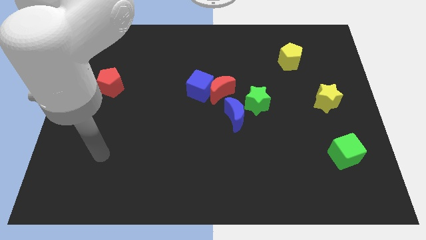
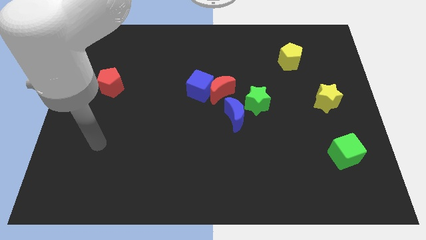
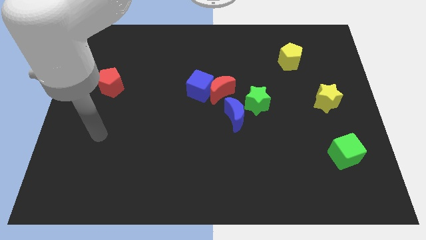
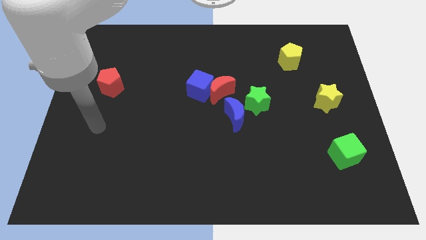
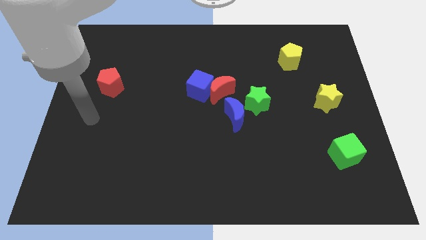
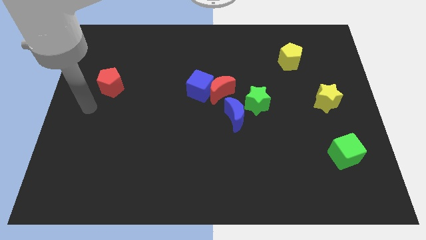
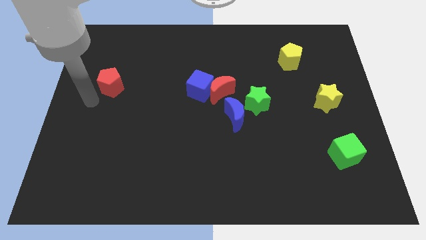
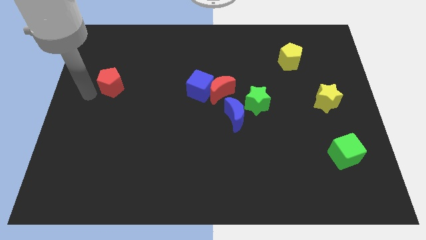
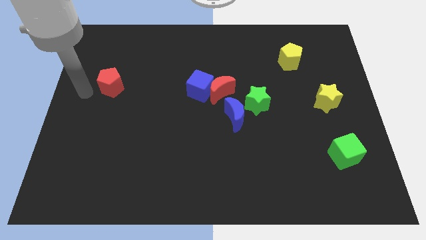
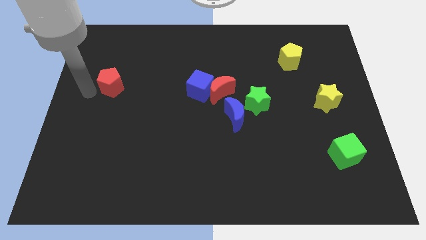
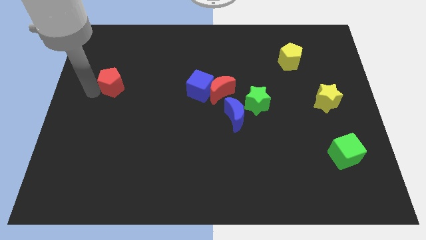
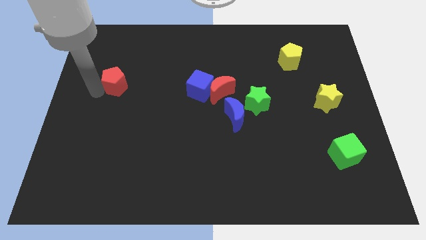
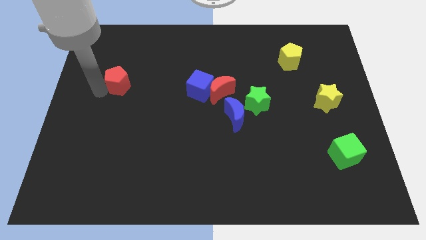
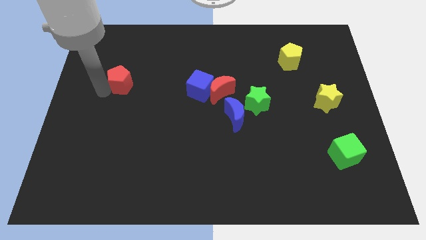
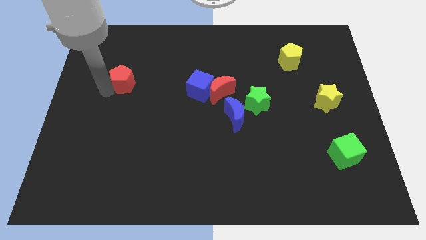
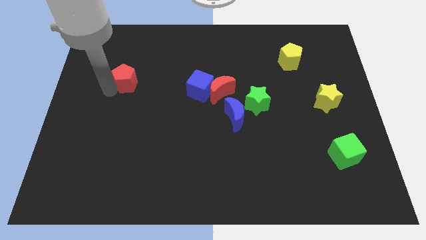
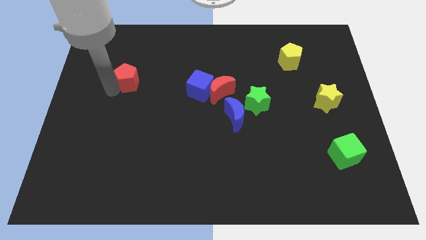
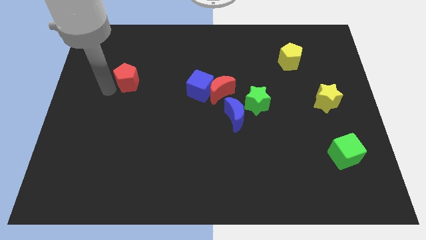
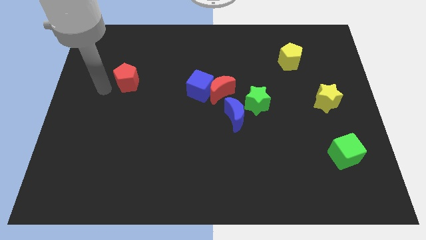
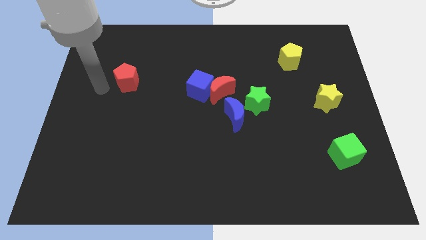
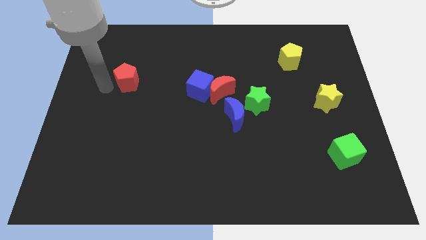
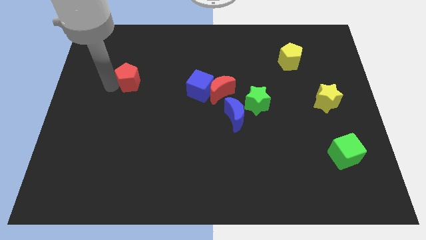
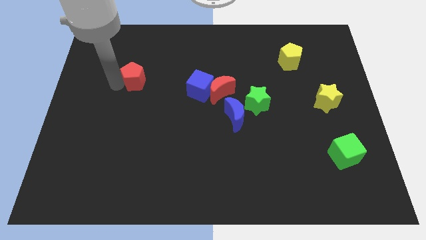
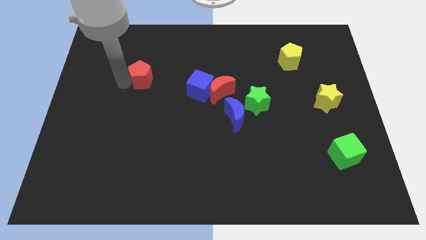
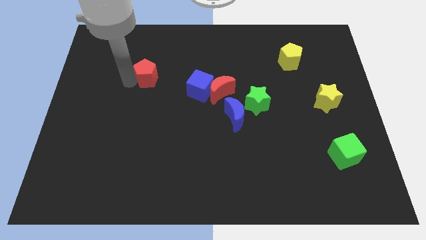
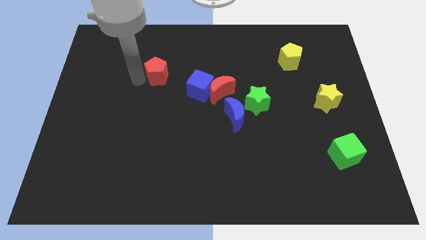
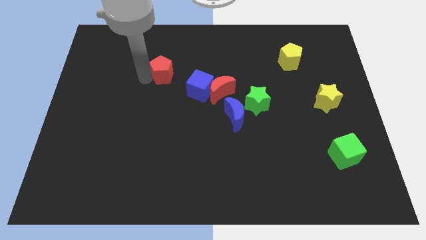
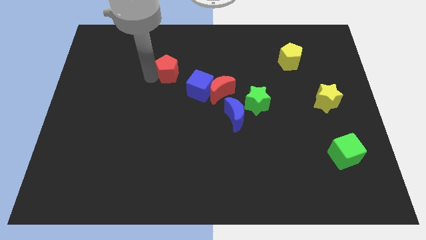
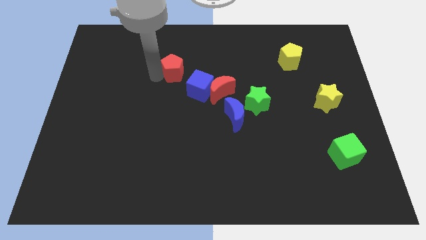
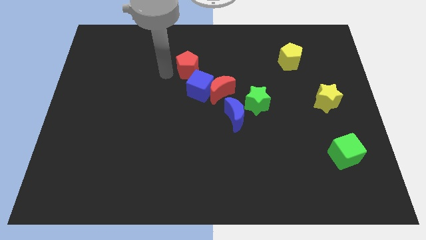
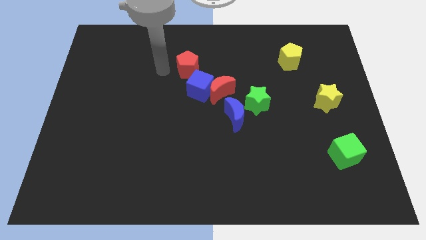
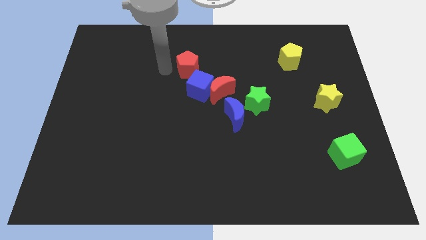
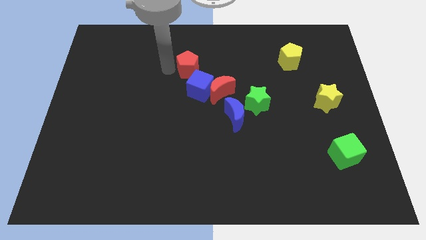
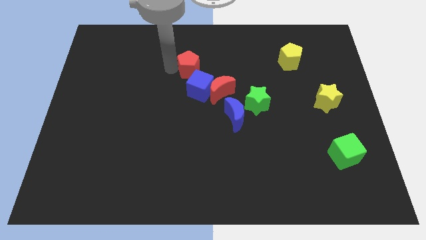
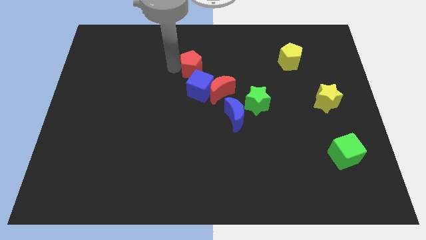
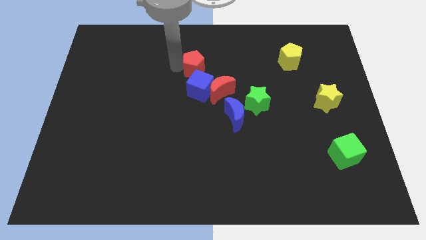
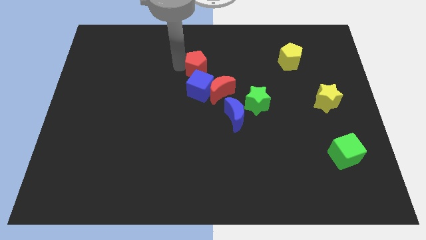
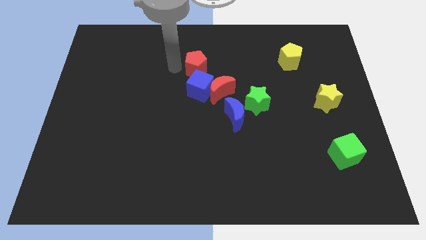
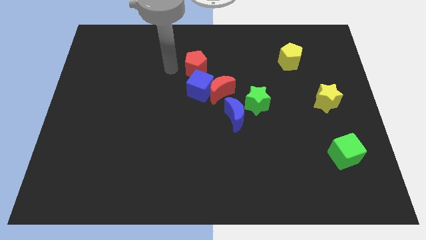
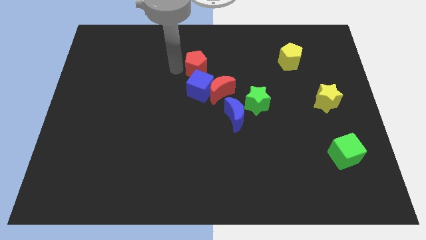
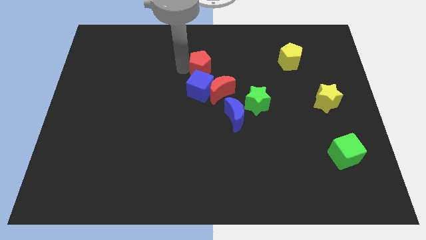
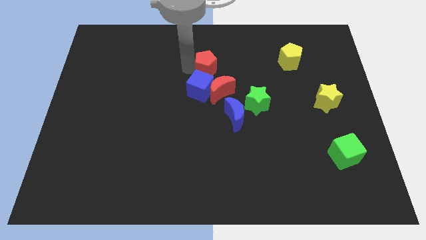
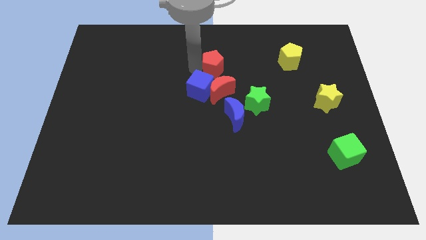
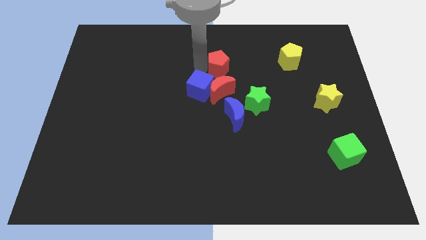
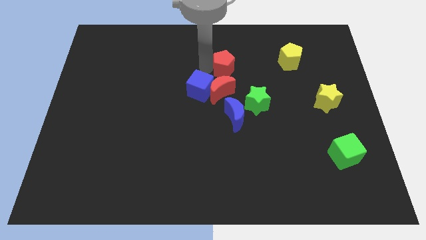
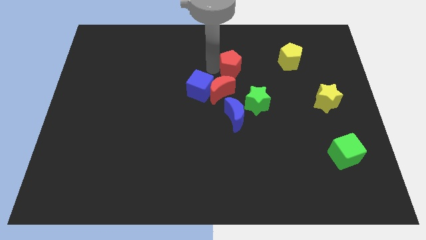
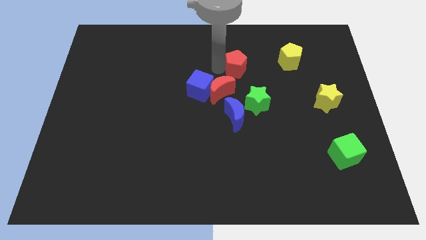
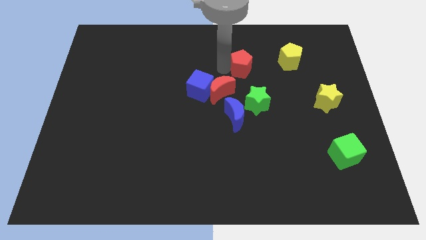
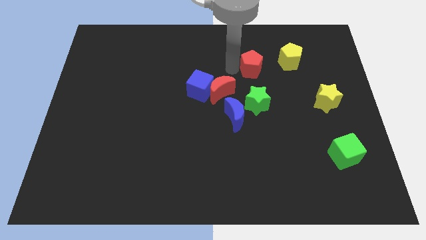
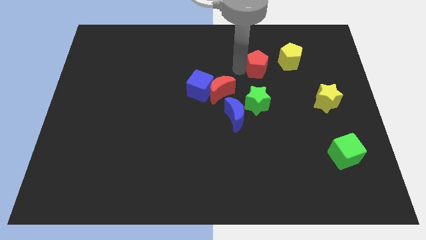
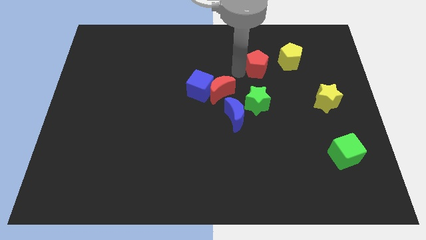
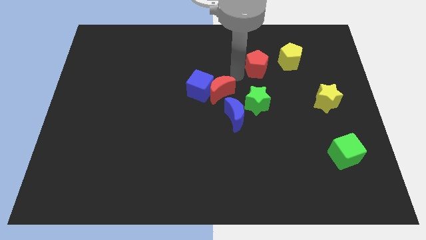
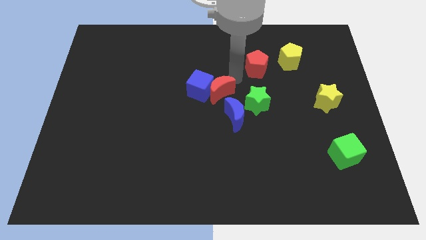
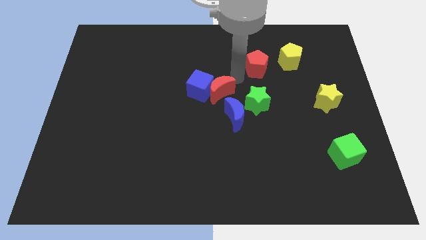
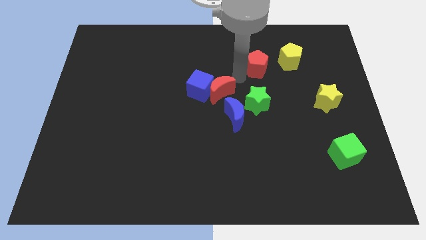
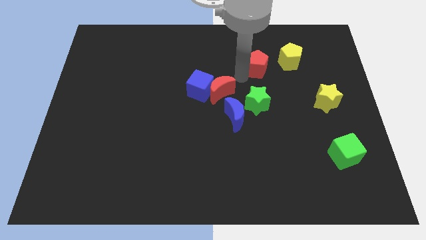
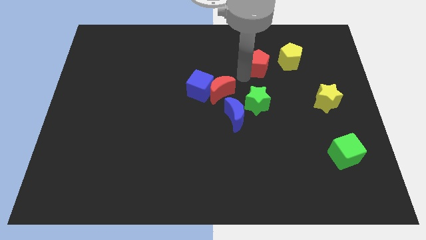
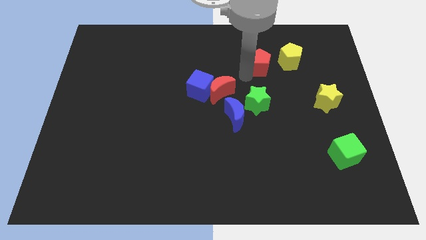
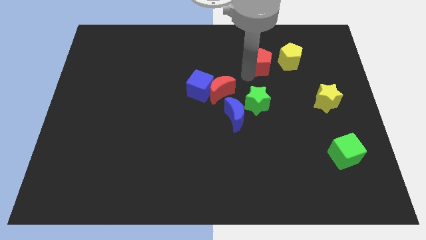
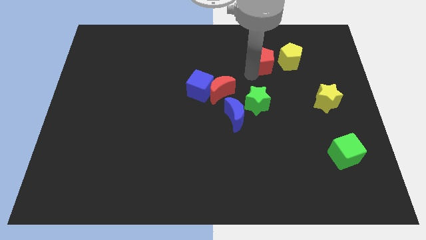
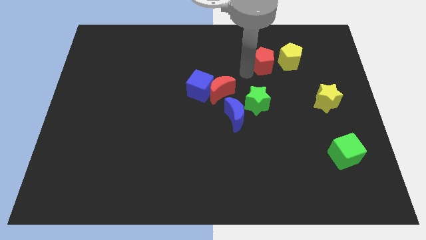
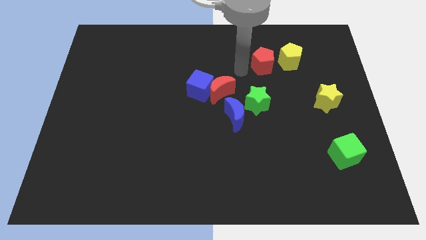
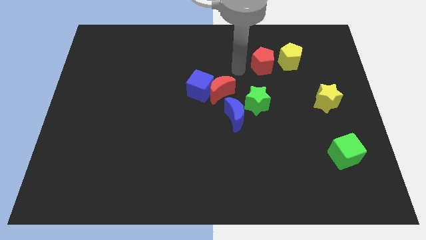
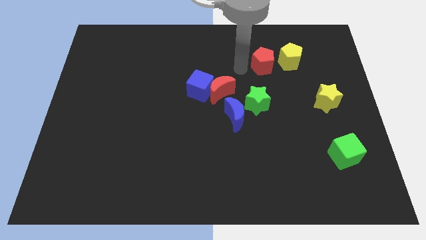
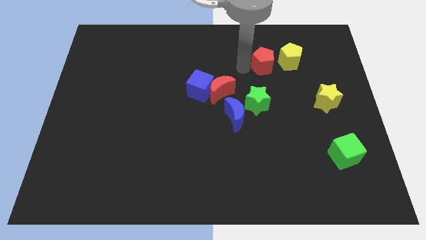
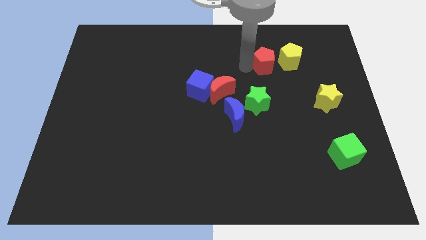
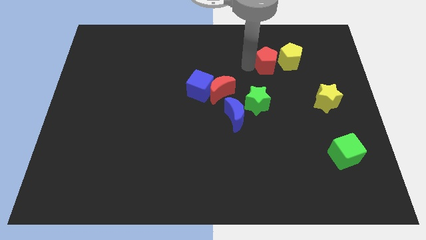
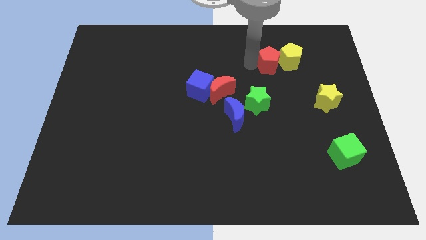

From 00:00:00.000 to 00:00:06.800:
put the red pentagon to the yellow pentagon

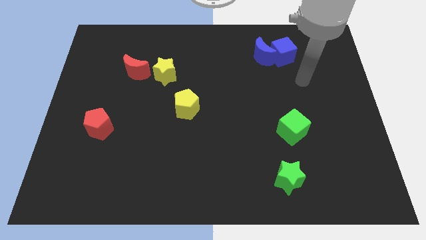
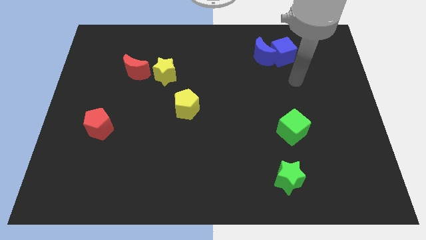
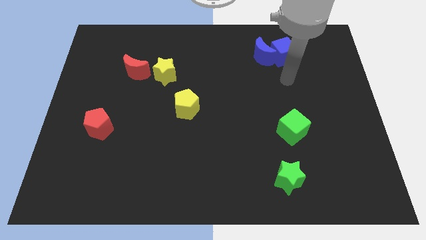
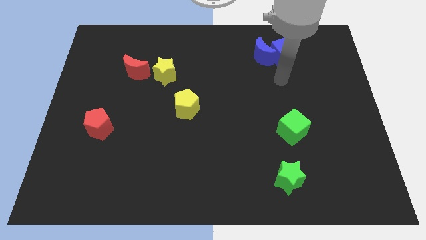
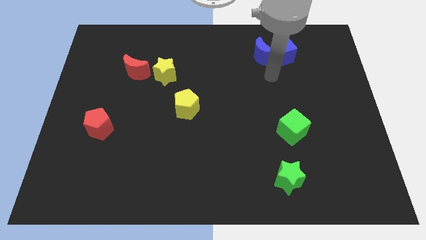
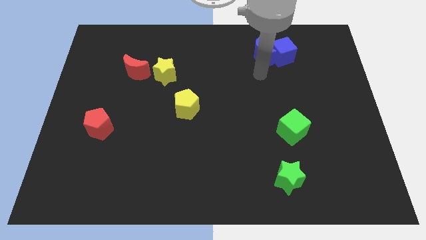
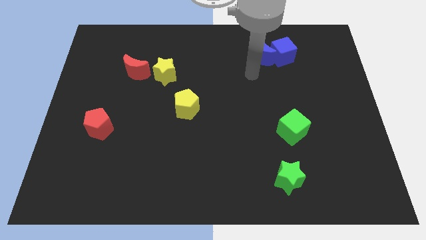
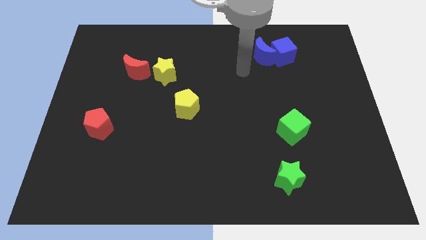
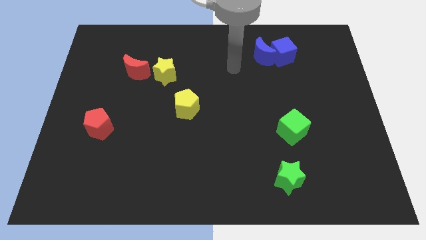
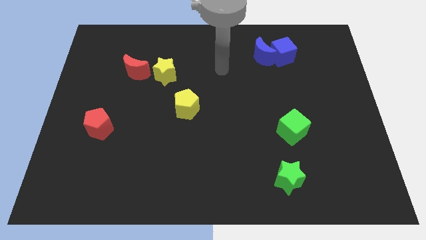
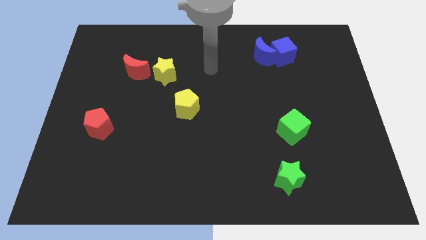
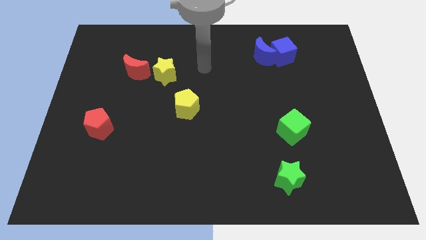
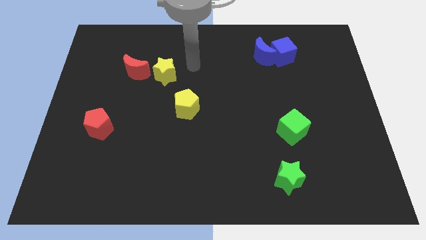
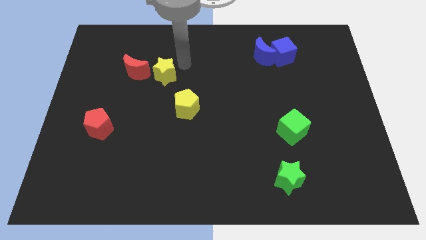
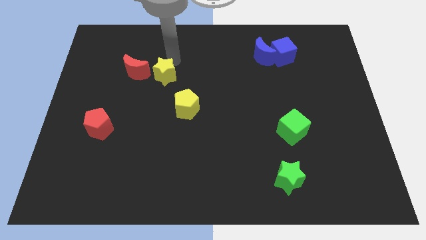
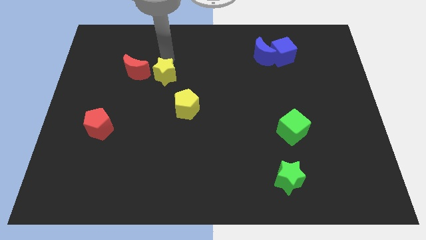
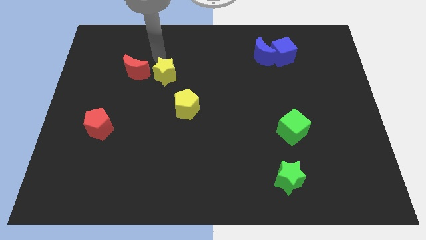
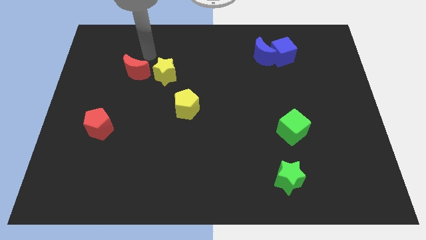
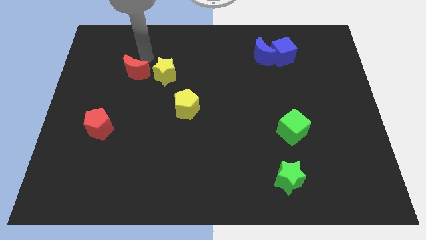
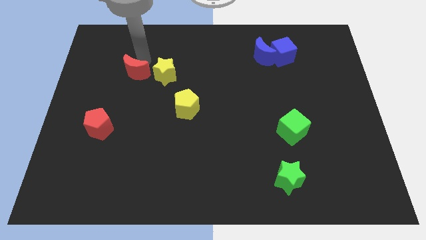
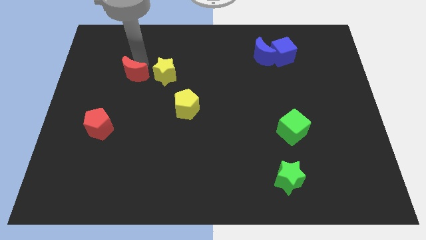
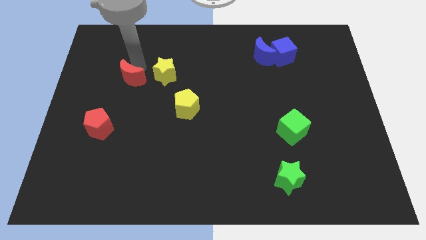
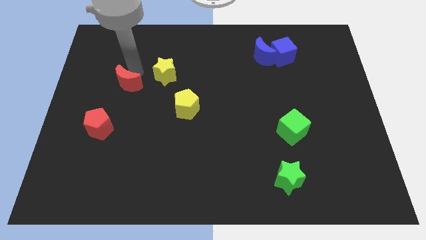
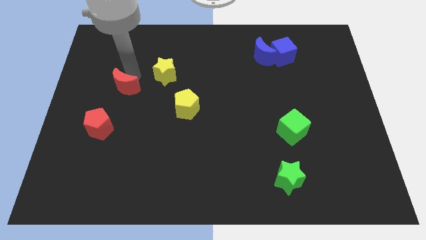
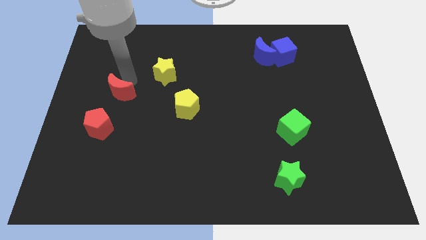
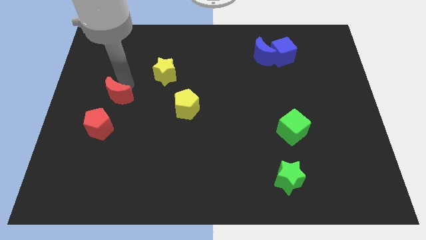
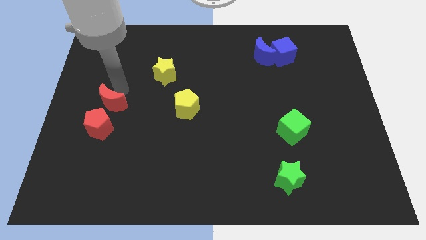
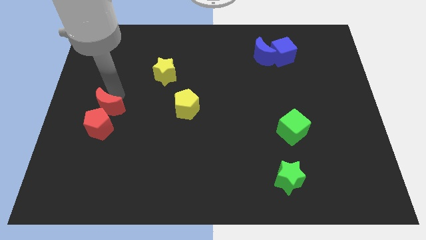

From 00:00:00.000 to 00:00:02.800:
slide the red moon to the red pentagon
